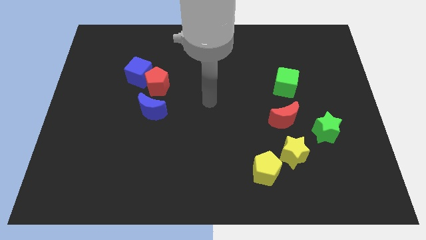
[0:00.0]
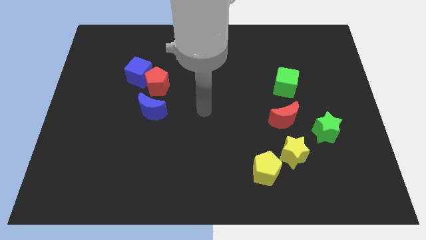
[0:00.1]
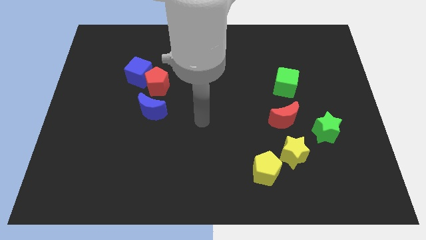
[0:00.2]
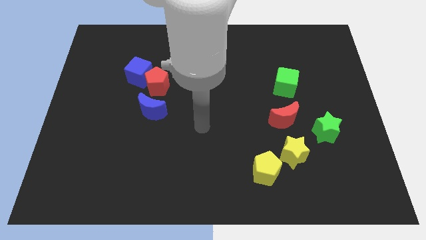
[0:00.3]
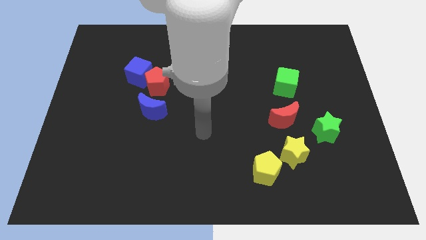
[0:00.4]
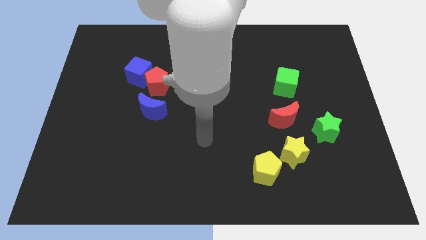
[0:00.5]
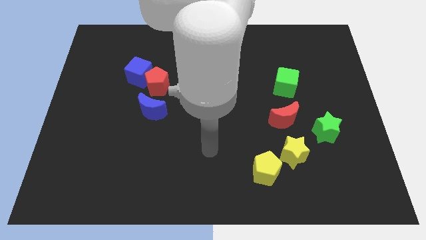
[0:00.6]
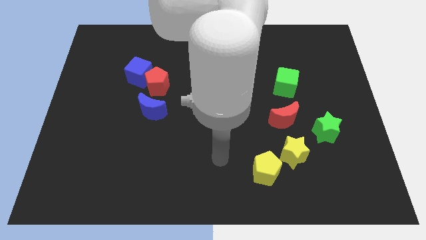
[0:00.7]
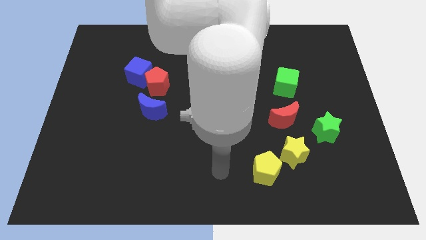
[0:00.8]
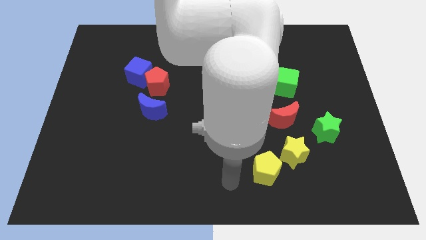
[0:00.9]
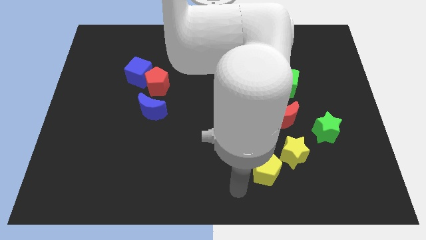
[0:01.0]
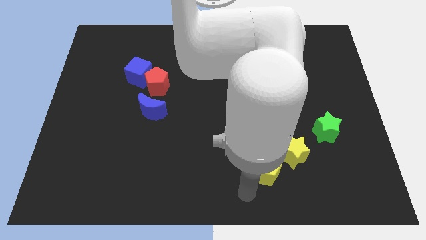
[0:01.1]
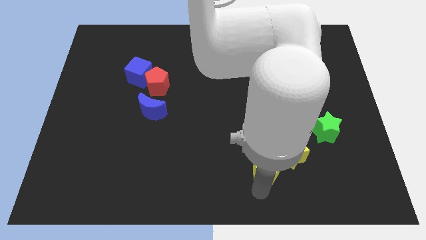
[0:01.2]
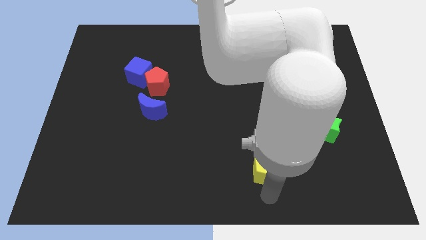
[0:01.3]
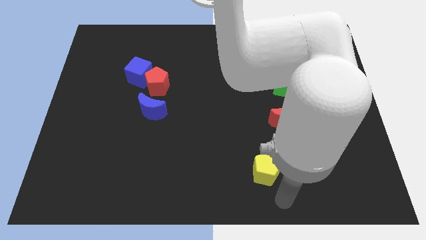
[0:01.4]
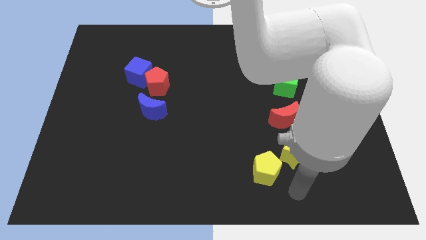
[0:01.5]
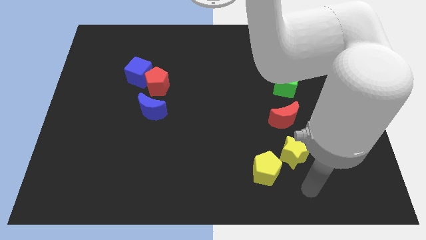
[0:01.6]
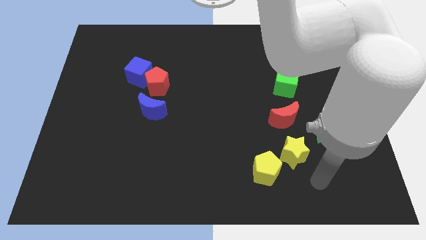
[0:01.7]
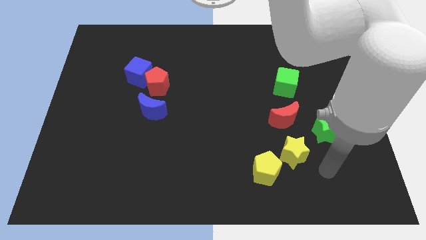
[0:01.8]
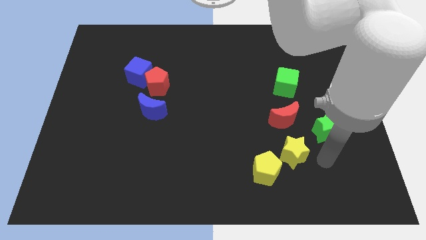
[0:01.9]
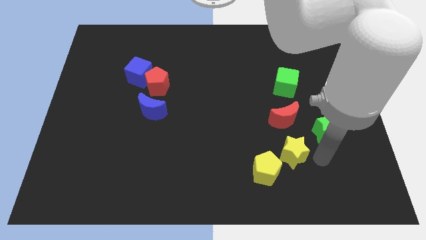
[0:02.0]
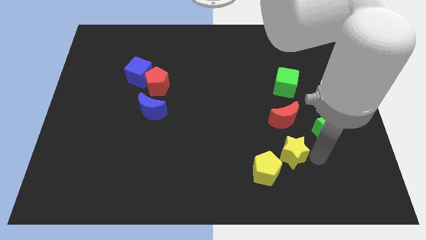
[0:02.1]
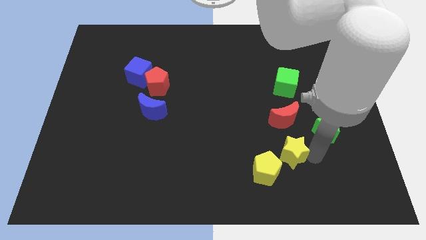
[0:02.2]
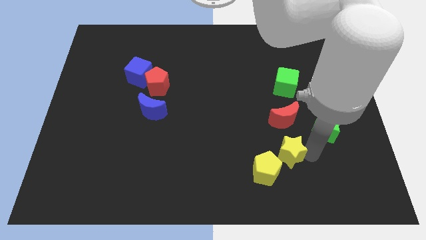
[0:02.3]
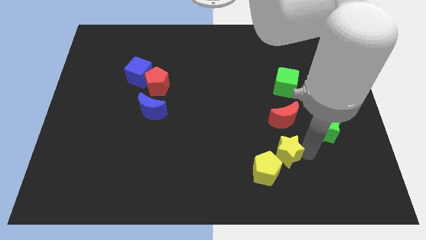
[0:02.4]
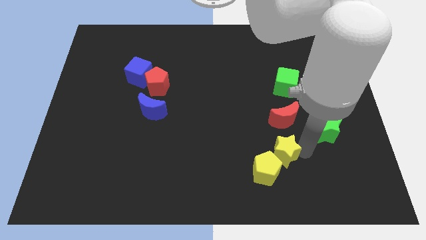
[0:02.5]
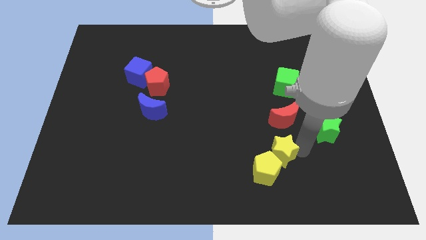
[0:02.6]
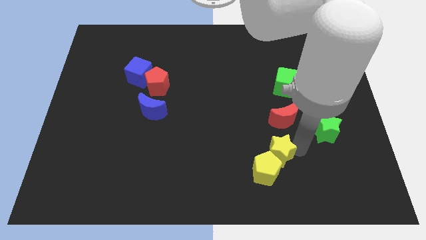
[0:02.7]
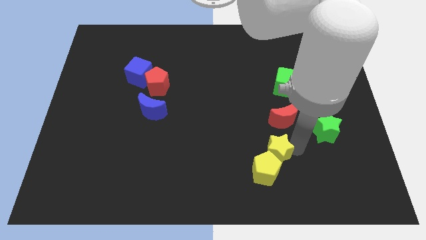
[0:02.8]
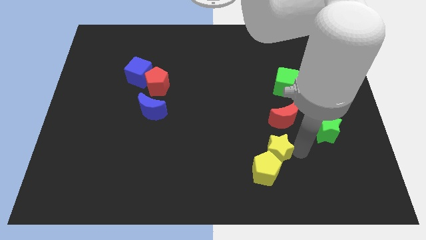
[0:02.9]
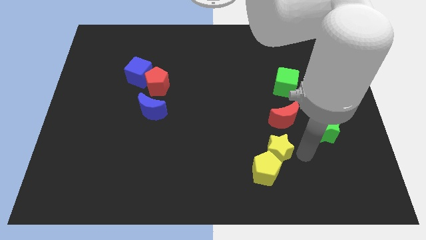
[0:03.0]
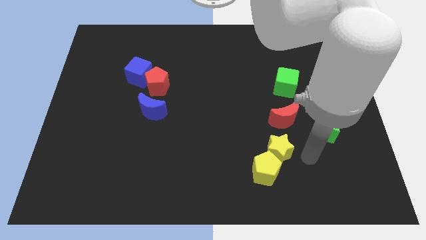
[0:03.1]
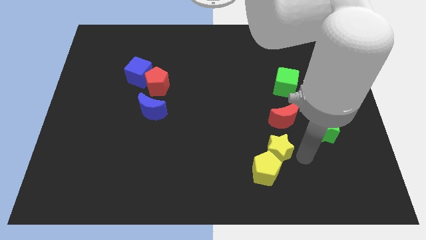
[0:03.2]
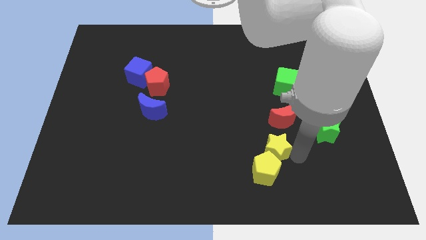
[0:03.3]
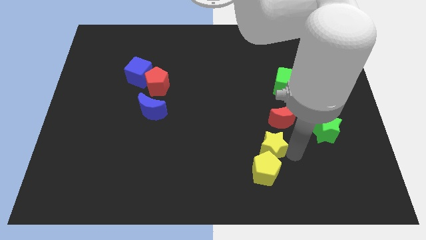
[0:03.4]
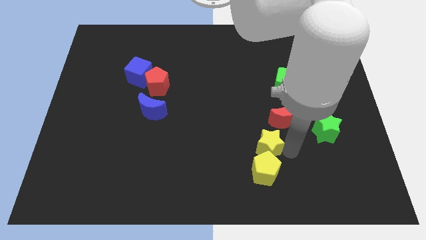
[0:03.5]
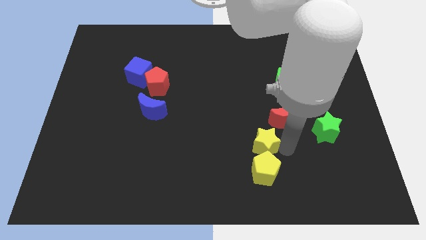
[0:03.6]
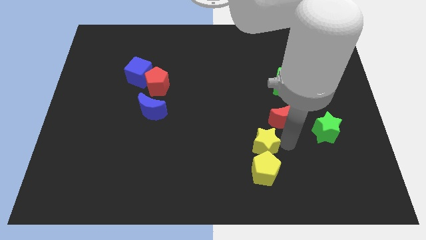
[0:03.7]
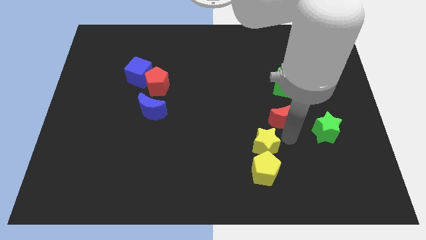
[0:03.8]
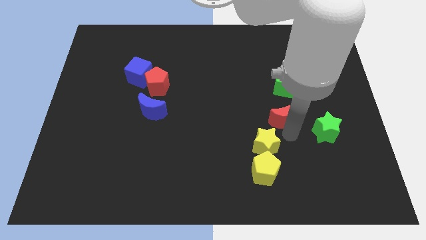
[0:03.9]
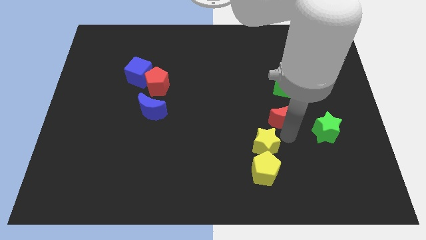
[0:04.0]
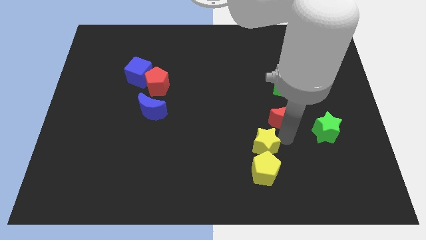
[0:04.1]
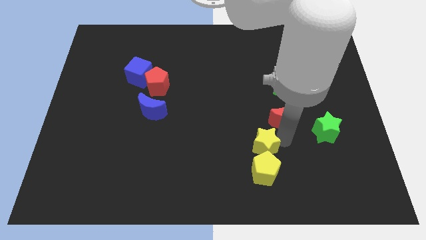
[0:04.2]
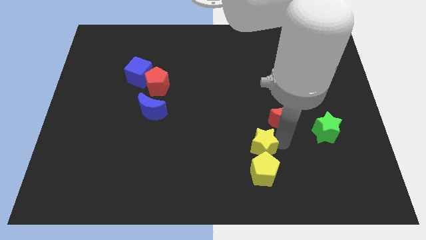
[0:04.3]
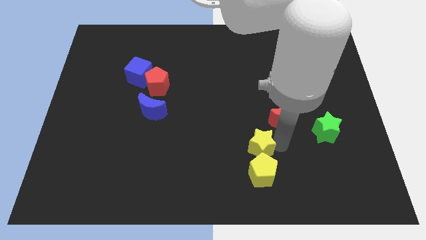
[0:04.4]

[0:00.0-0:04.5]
slightly push the yellow star left

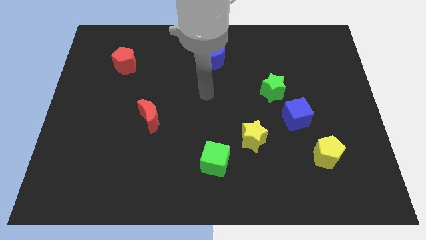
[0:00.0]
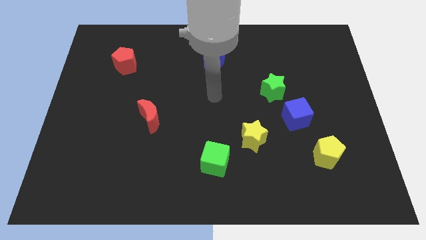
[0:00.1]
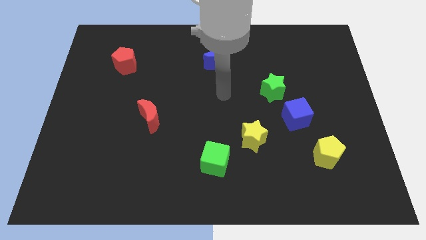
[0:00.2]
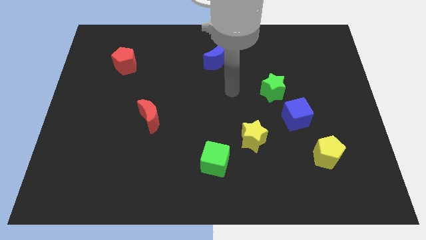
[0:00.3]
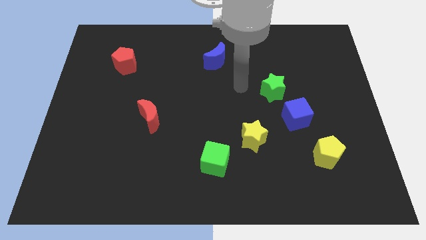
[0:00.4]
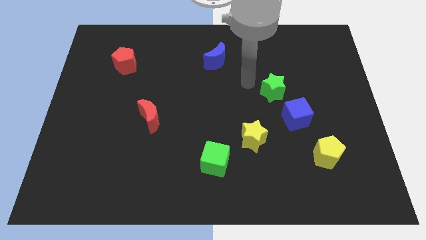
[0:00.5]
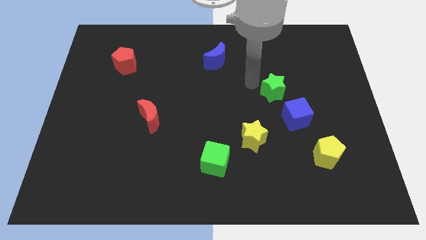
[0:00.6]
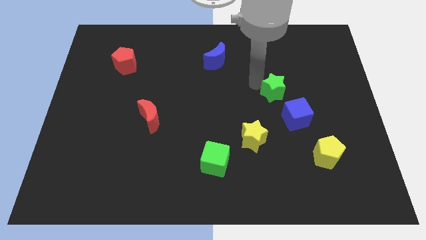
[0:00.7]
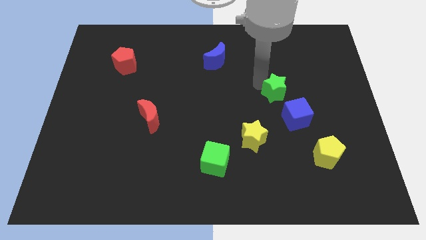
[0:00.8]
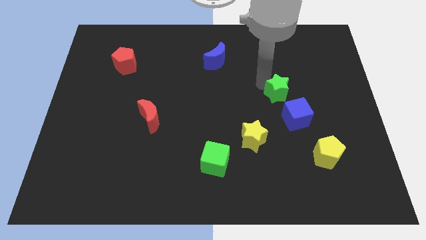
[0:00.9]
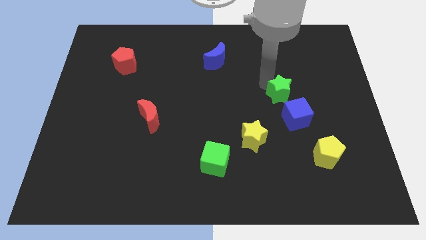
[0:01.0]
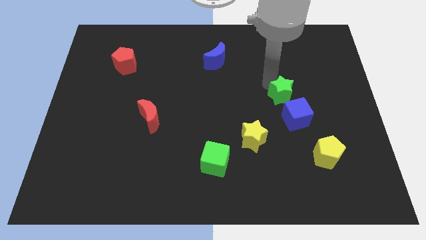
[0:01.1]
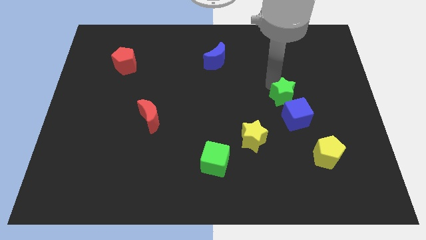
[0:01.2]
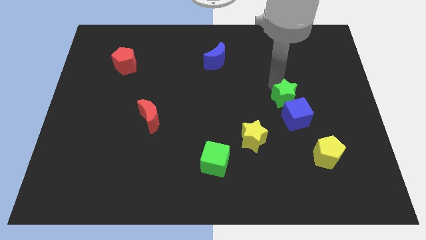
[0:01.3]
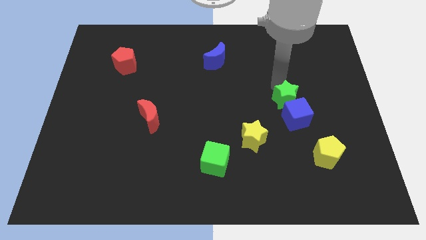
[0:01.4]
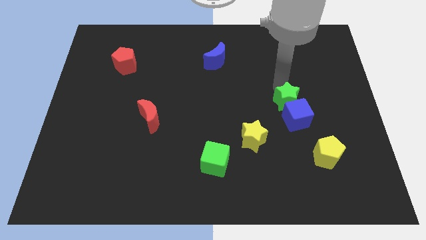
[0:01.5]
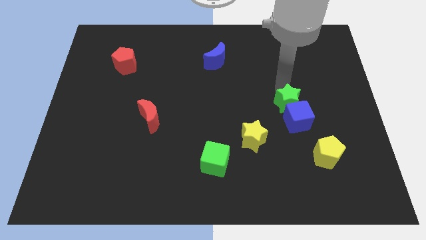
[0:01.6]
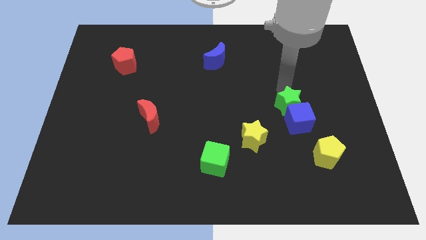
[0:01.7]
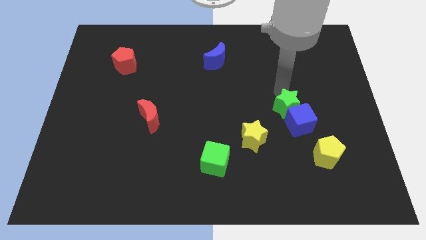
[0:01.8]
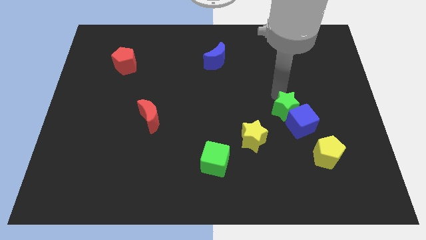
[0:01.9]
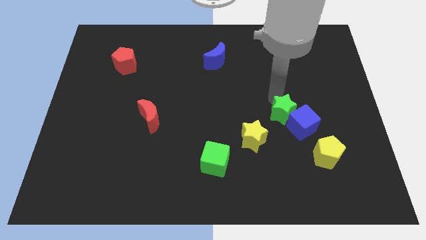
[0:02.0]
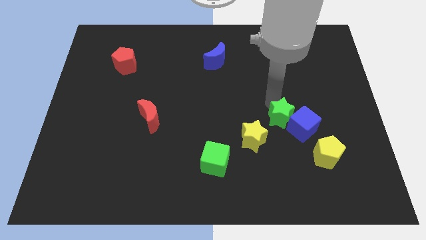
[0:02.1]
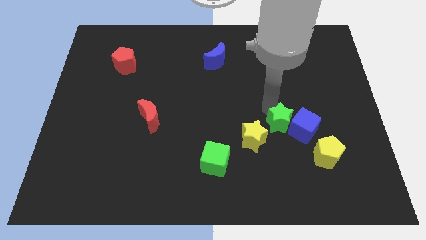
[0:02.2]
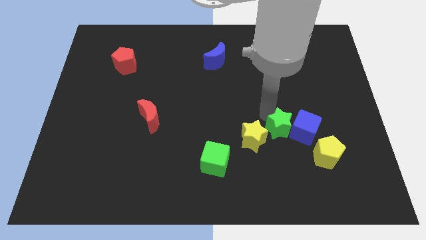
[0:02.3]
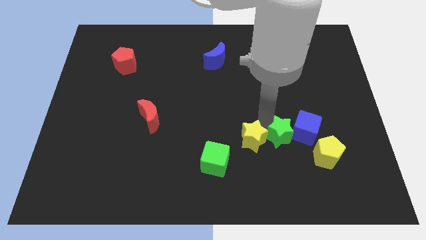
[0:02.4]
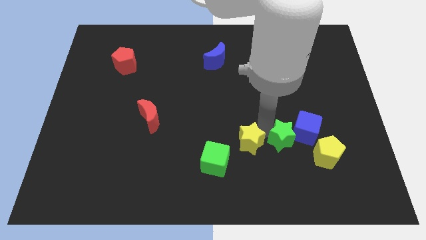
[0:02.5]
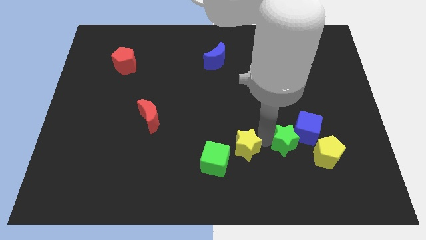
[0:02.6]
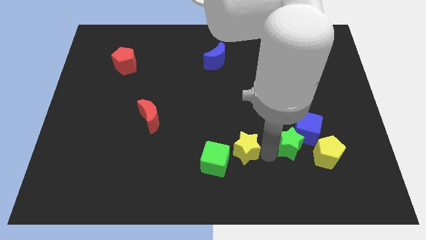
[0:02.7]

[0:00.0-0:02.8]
slightly slide the green star down and to the right diagonally

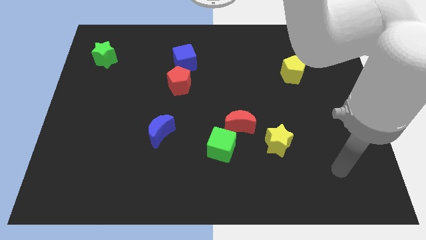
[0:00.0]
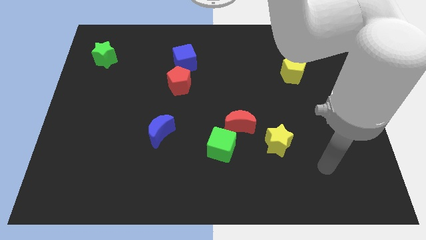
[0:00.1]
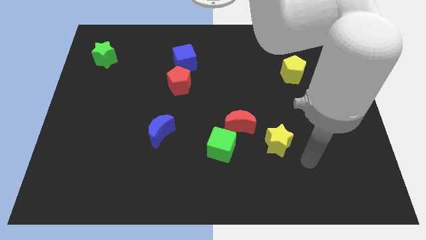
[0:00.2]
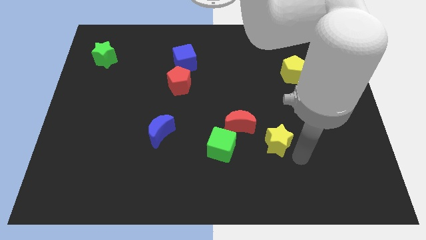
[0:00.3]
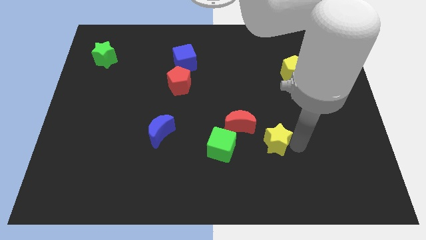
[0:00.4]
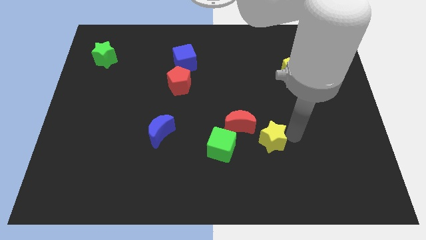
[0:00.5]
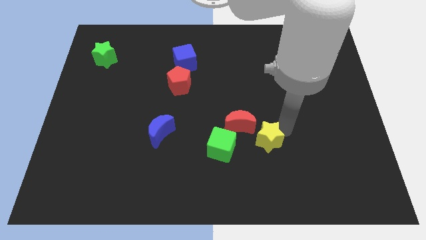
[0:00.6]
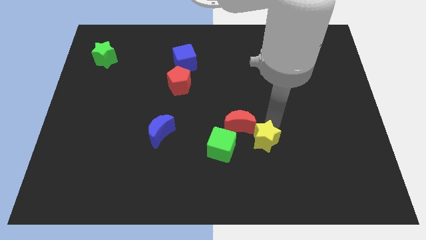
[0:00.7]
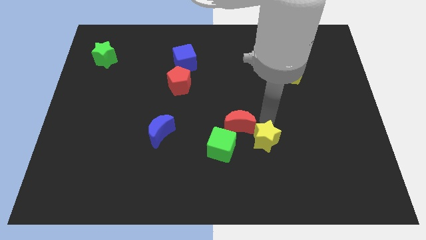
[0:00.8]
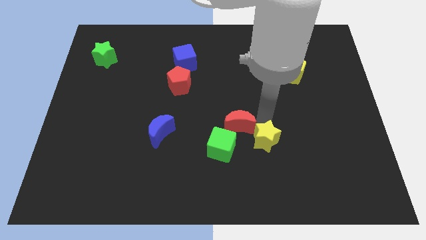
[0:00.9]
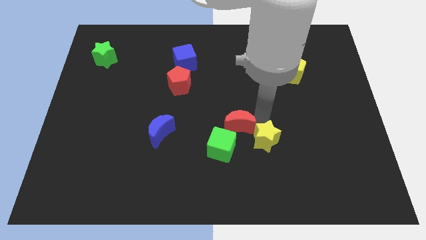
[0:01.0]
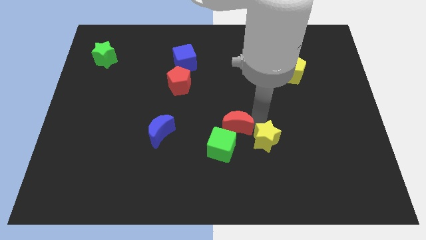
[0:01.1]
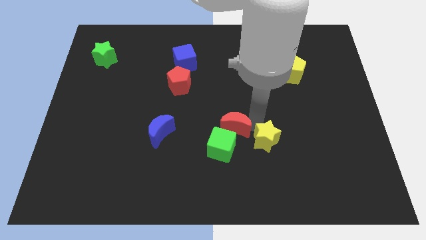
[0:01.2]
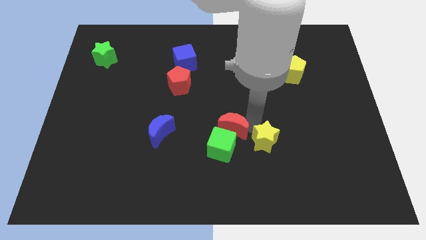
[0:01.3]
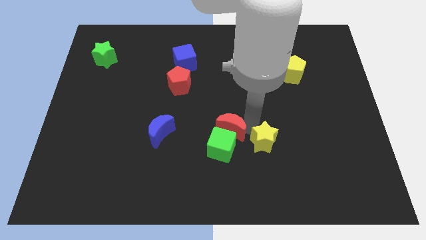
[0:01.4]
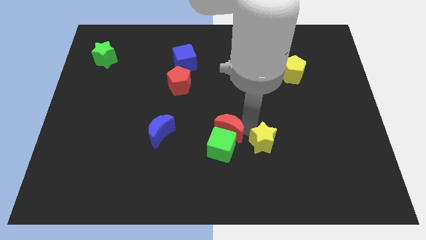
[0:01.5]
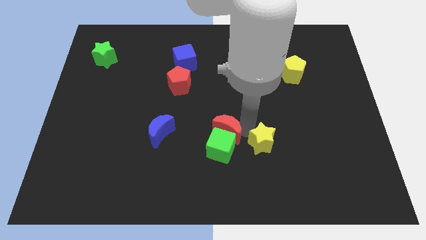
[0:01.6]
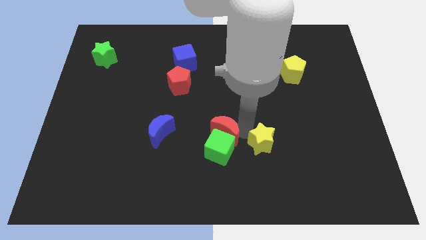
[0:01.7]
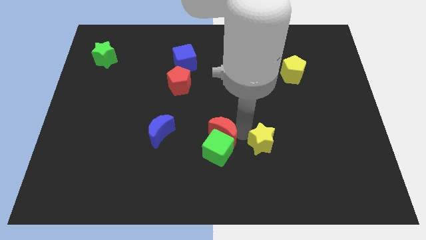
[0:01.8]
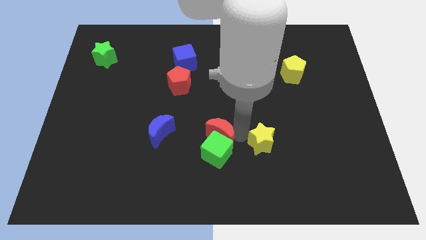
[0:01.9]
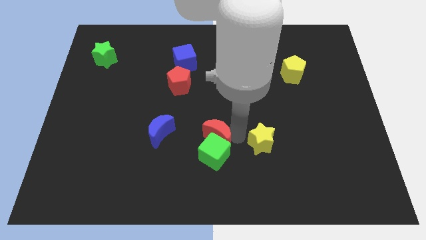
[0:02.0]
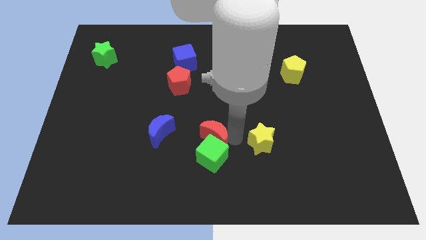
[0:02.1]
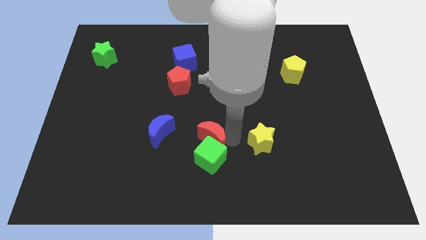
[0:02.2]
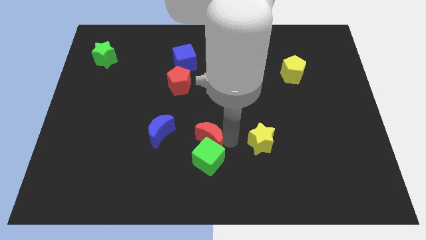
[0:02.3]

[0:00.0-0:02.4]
push the red moon downwards and left diagonally a little
